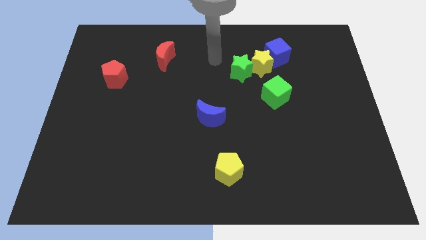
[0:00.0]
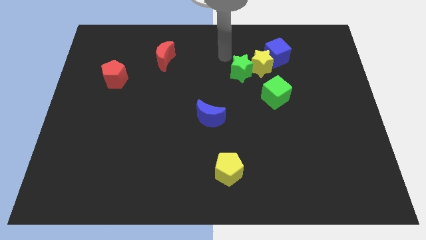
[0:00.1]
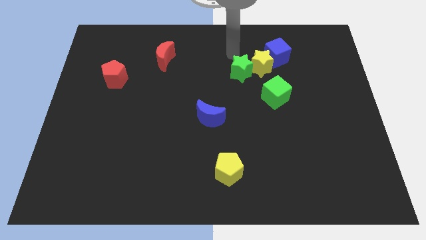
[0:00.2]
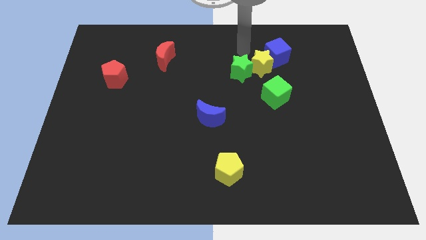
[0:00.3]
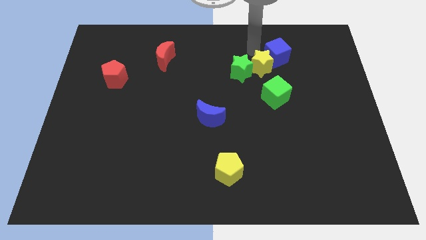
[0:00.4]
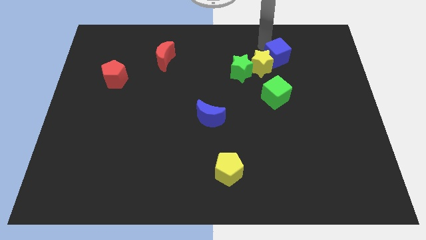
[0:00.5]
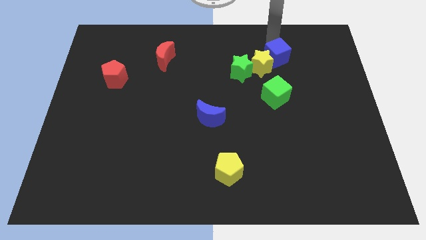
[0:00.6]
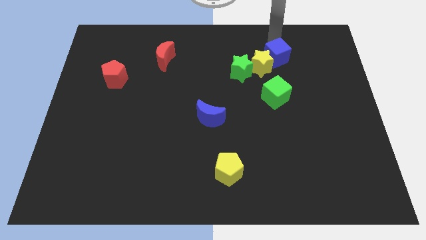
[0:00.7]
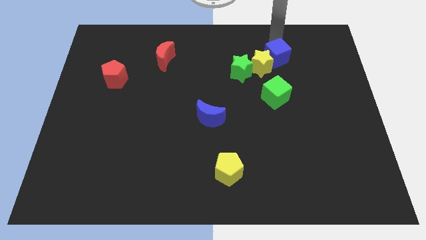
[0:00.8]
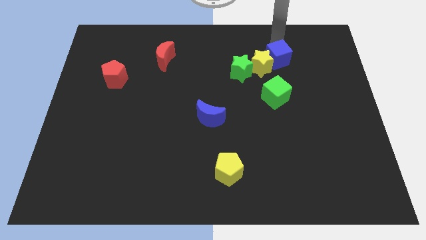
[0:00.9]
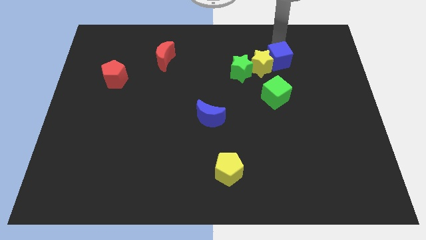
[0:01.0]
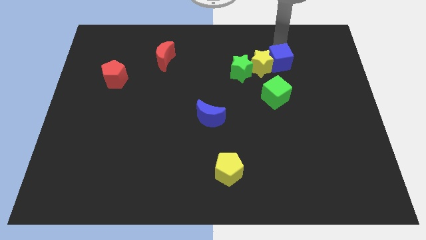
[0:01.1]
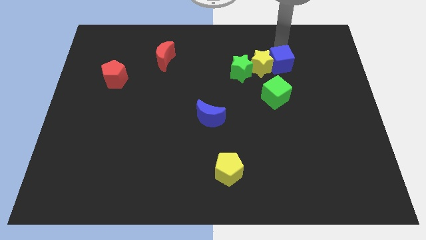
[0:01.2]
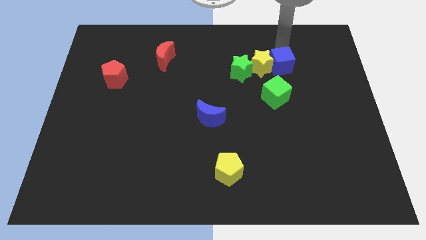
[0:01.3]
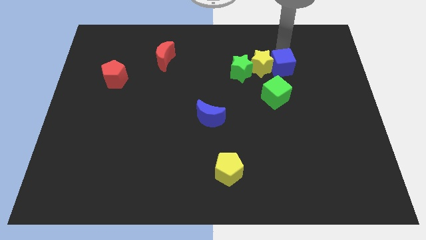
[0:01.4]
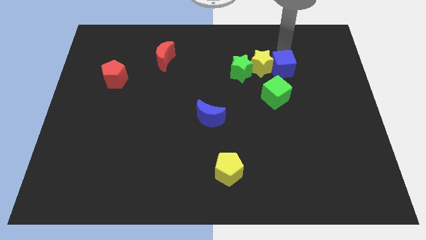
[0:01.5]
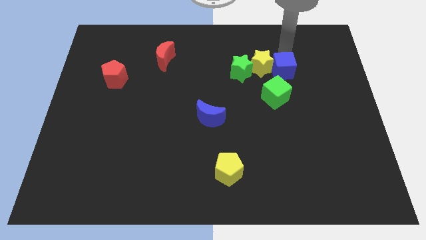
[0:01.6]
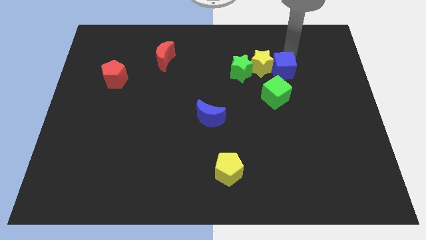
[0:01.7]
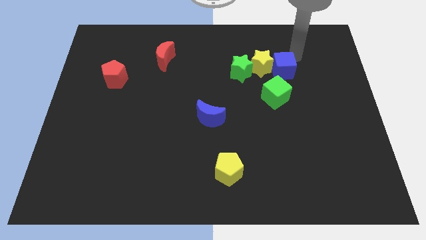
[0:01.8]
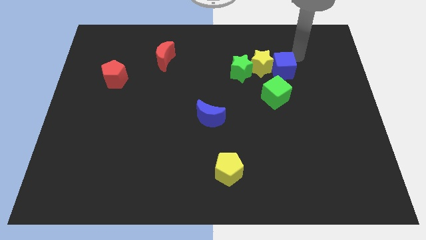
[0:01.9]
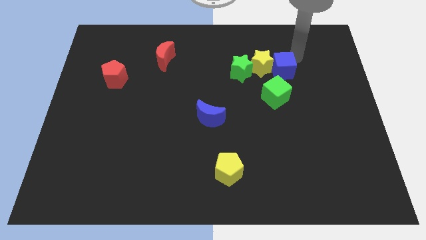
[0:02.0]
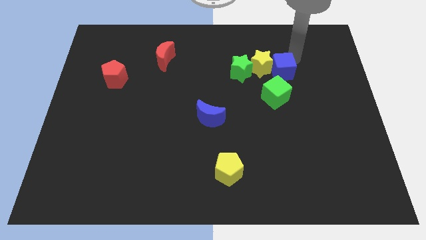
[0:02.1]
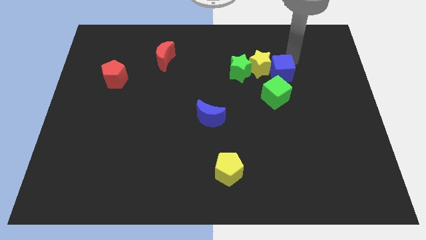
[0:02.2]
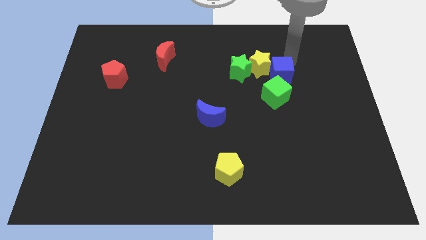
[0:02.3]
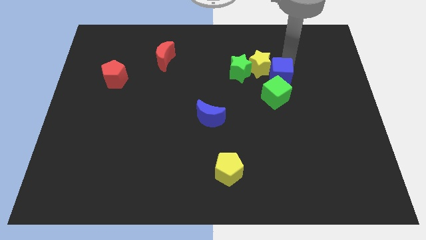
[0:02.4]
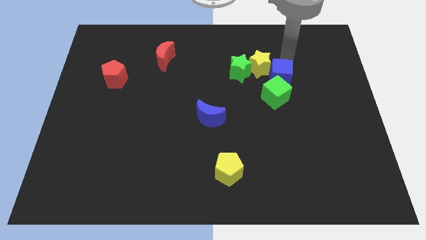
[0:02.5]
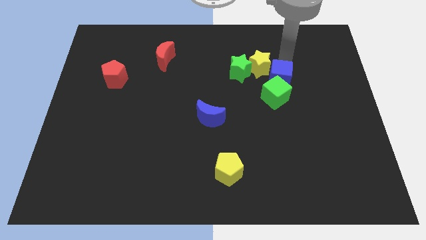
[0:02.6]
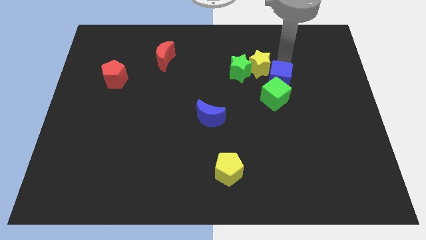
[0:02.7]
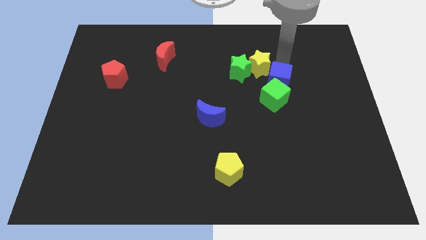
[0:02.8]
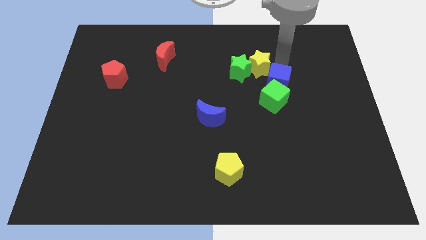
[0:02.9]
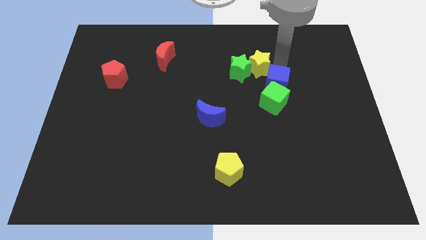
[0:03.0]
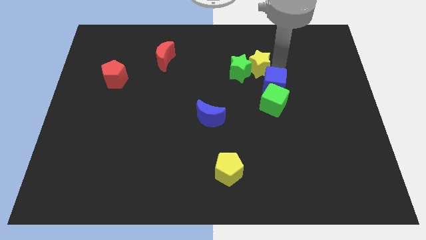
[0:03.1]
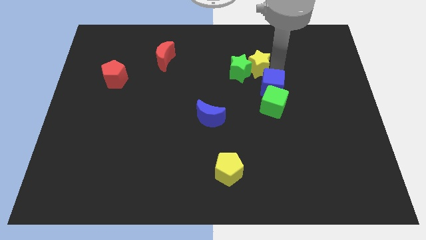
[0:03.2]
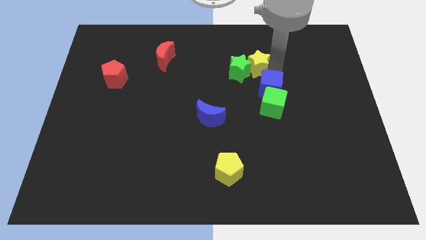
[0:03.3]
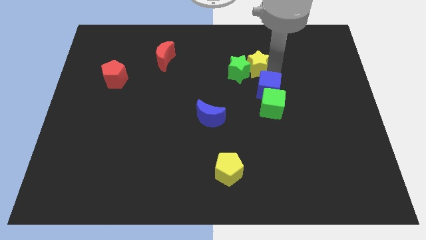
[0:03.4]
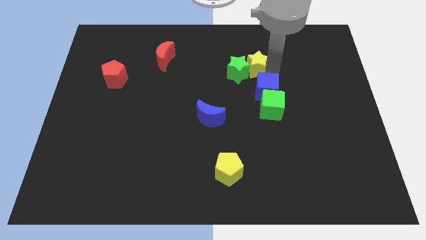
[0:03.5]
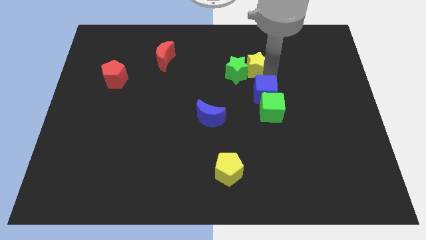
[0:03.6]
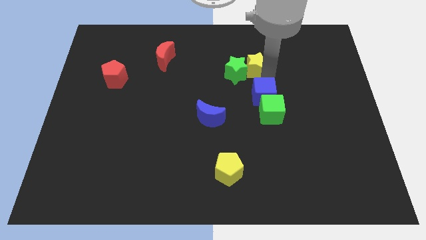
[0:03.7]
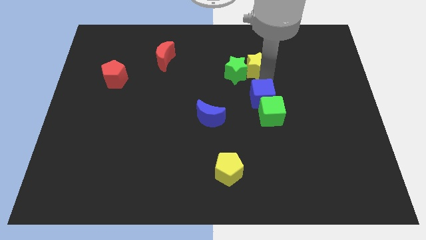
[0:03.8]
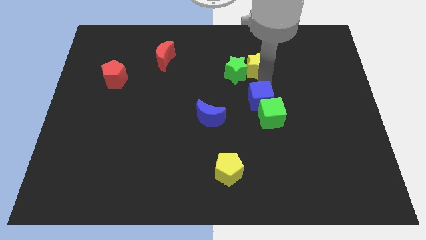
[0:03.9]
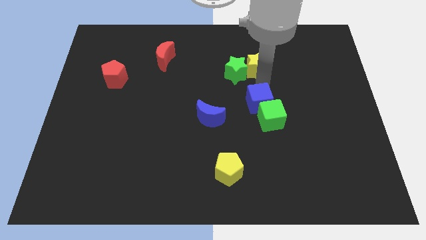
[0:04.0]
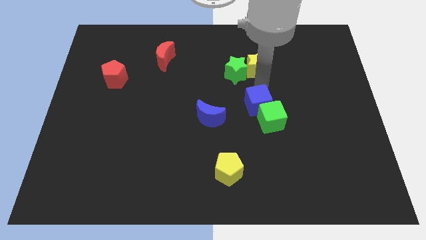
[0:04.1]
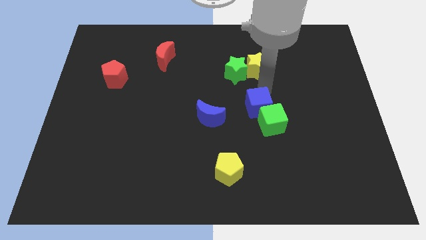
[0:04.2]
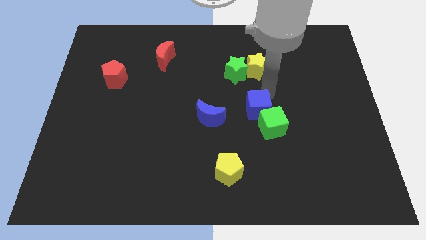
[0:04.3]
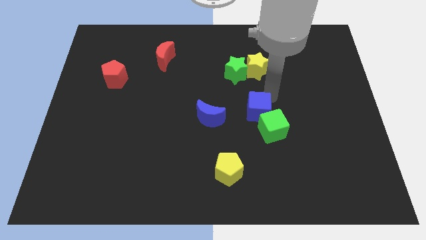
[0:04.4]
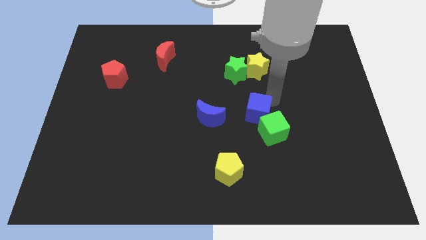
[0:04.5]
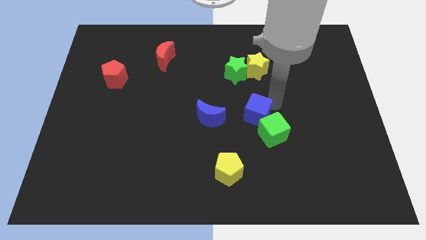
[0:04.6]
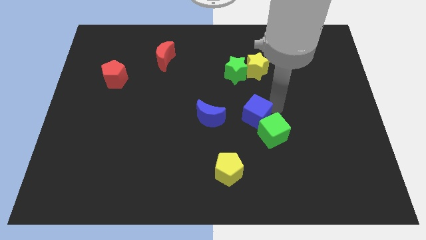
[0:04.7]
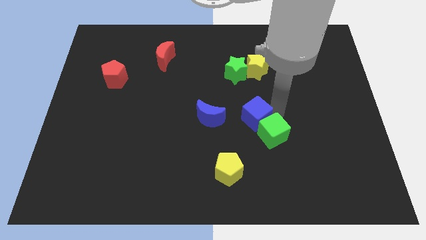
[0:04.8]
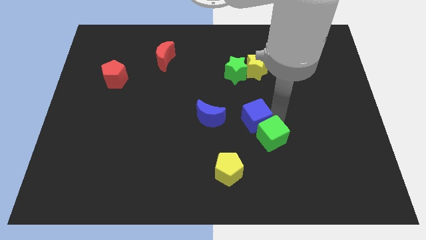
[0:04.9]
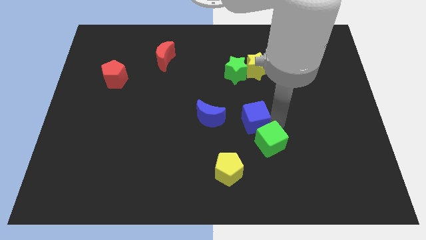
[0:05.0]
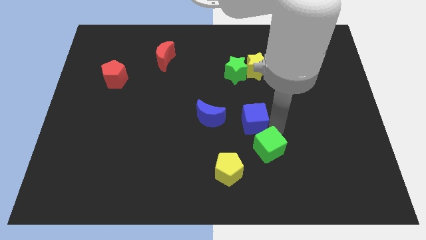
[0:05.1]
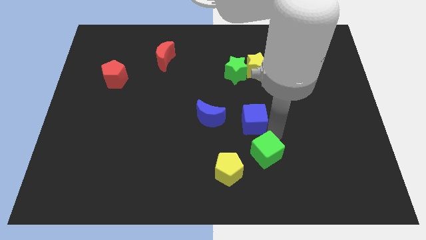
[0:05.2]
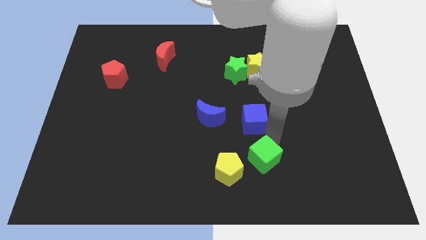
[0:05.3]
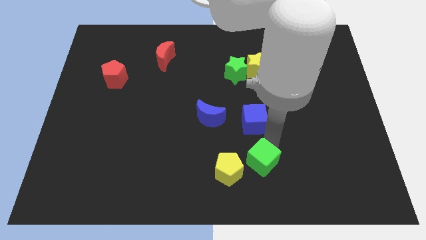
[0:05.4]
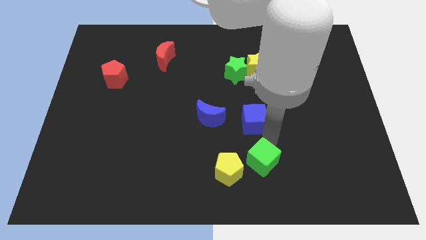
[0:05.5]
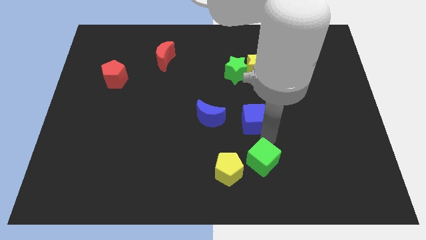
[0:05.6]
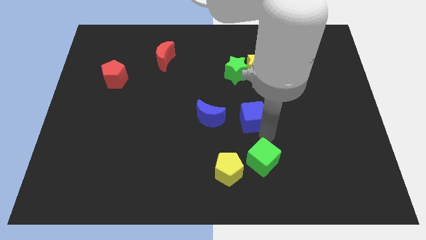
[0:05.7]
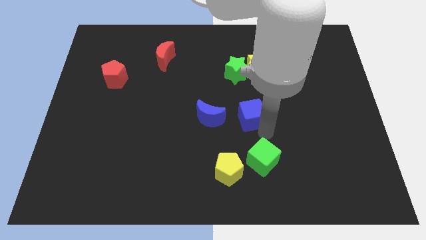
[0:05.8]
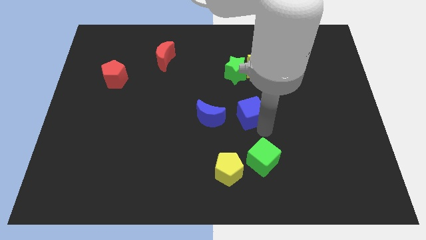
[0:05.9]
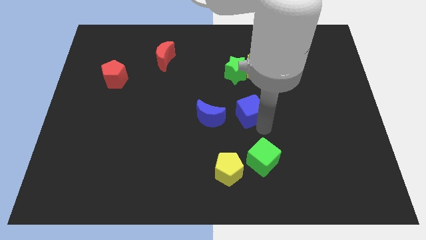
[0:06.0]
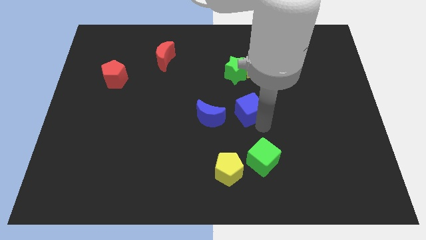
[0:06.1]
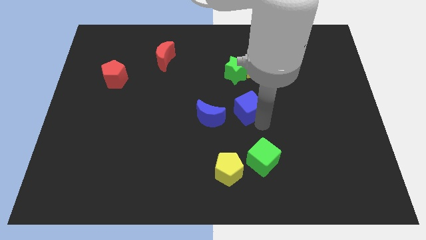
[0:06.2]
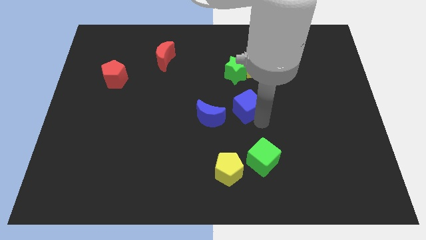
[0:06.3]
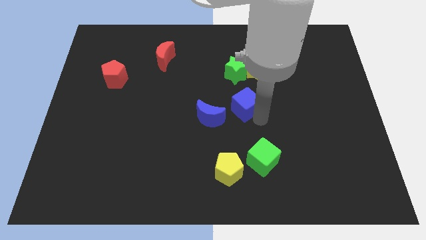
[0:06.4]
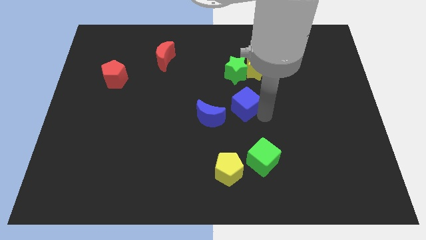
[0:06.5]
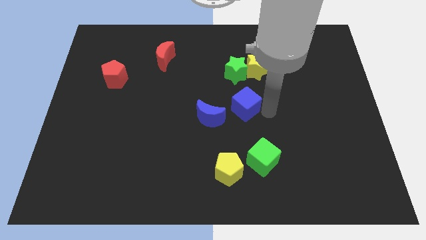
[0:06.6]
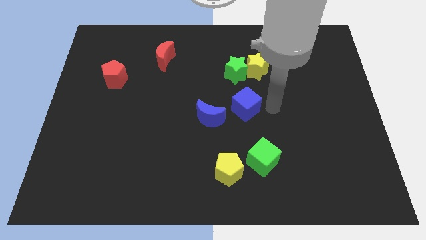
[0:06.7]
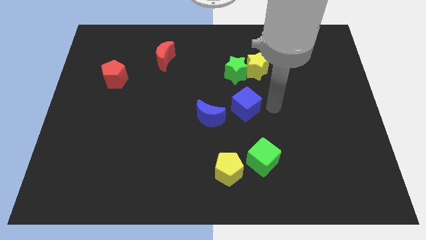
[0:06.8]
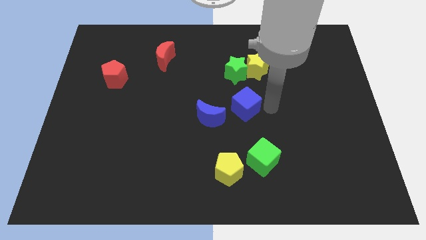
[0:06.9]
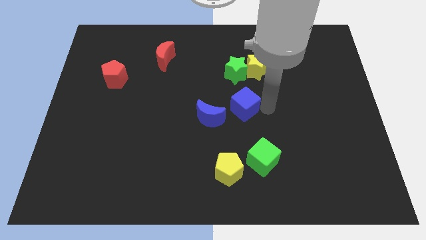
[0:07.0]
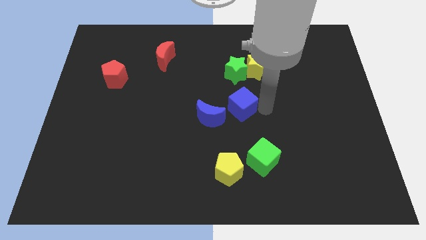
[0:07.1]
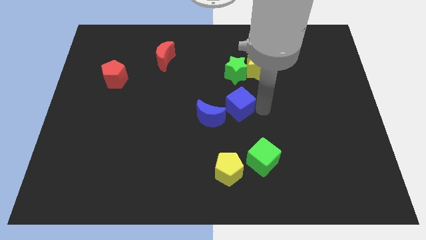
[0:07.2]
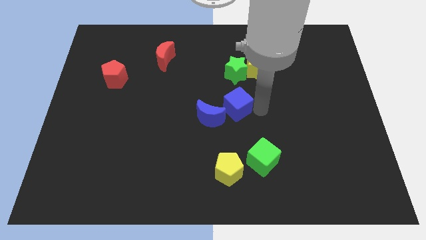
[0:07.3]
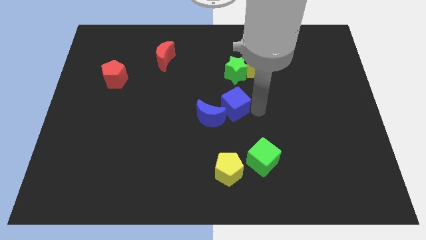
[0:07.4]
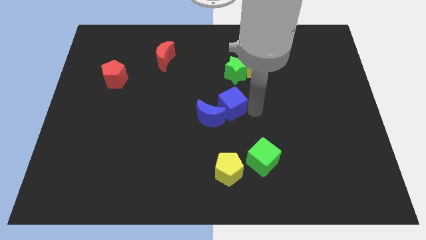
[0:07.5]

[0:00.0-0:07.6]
put the blue cube next to the blue moon

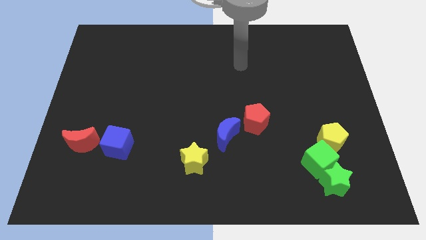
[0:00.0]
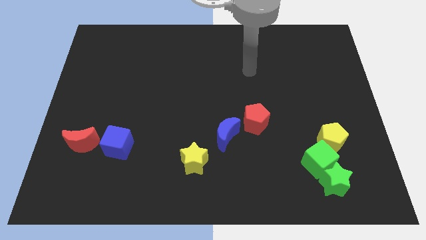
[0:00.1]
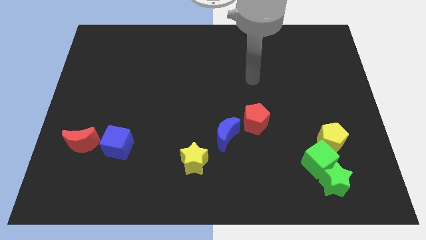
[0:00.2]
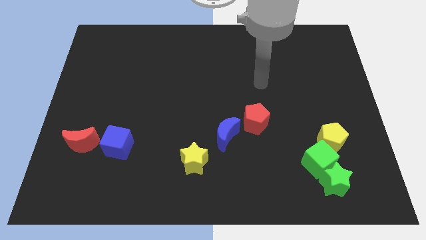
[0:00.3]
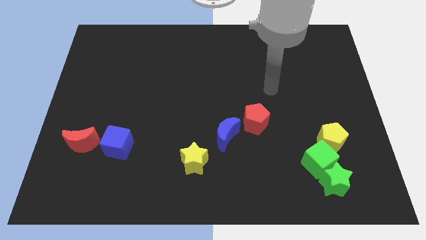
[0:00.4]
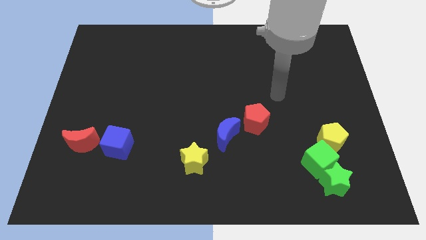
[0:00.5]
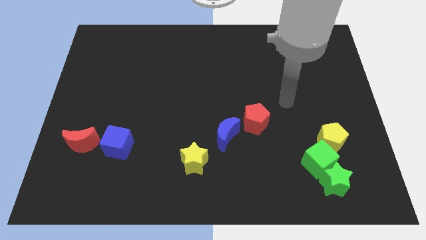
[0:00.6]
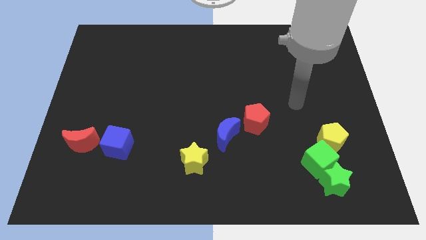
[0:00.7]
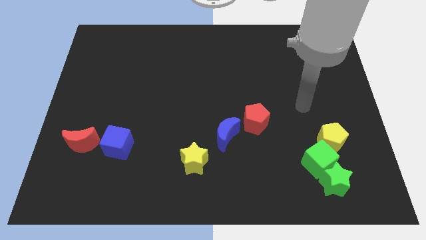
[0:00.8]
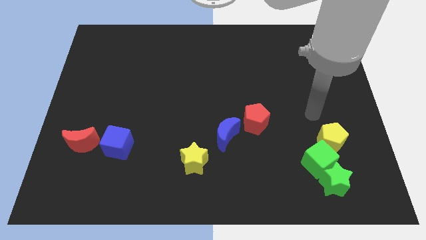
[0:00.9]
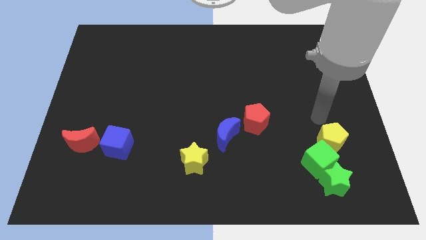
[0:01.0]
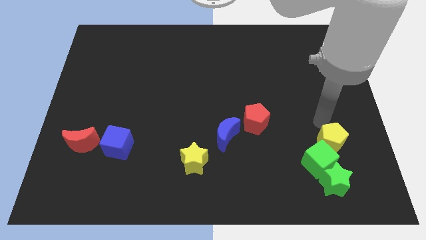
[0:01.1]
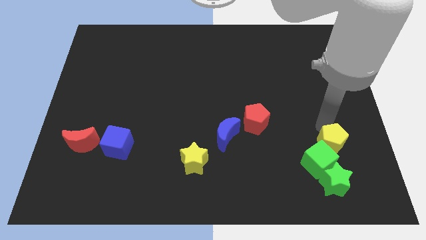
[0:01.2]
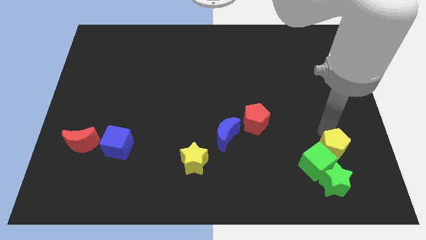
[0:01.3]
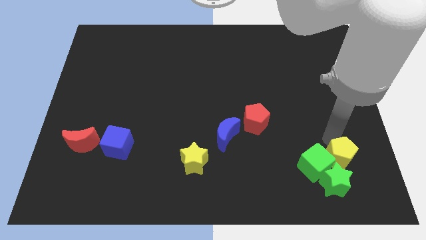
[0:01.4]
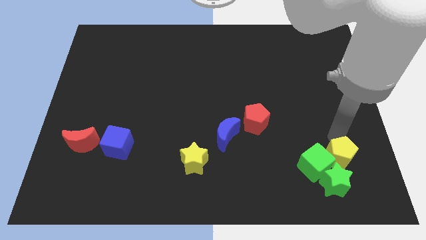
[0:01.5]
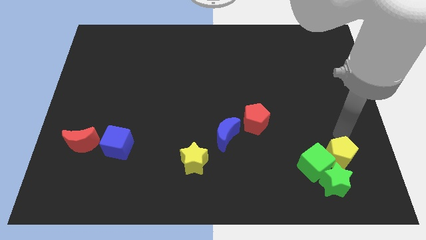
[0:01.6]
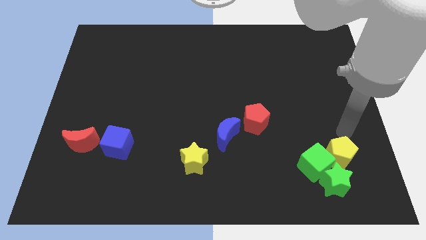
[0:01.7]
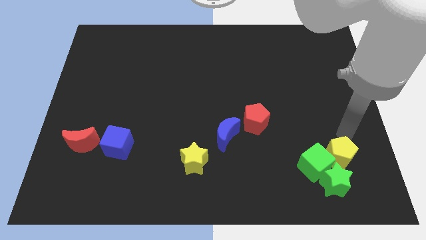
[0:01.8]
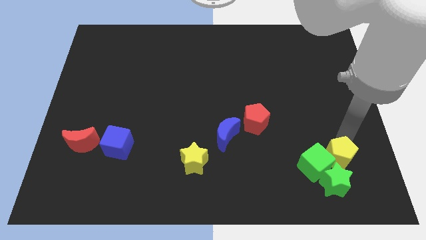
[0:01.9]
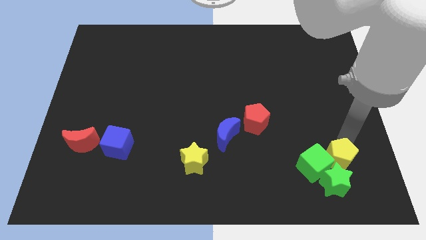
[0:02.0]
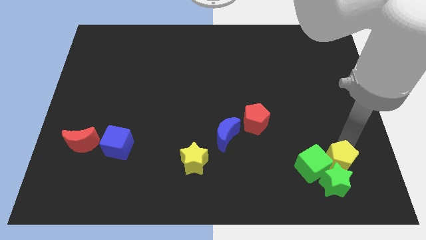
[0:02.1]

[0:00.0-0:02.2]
slide the yellow pentagon to the green star
